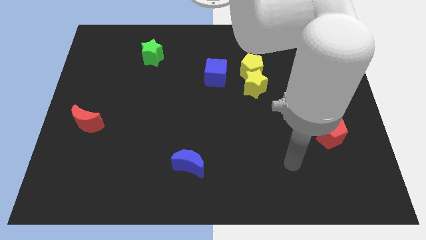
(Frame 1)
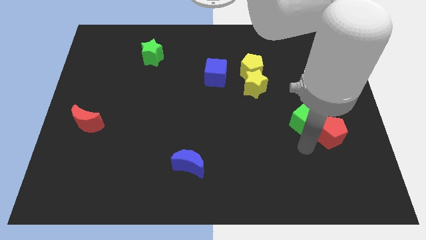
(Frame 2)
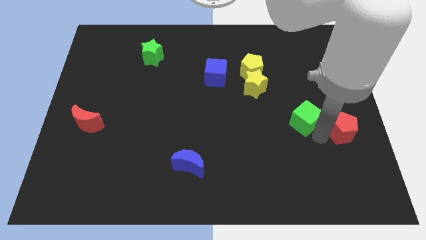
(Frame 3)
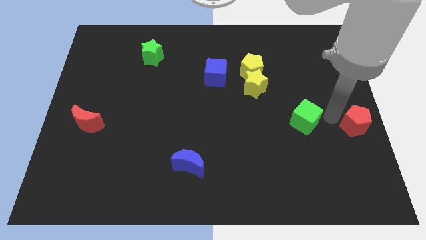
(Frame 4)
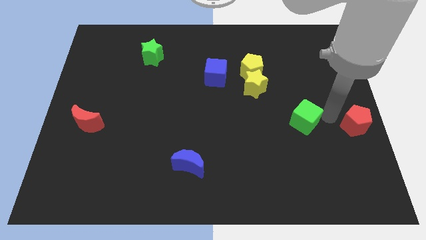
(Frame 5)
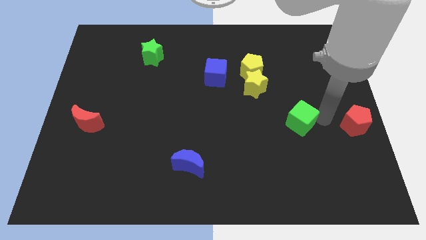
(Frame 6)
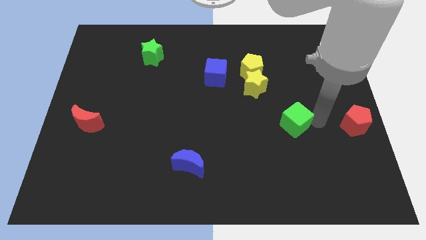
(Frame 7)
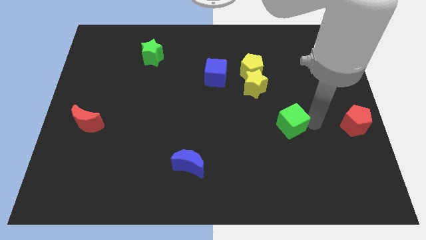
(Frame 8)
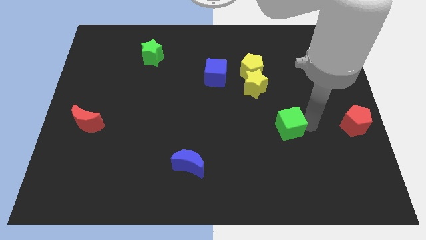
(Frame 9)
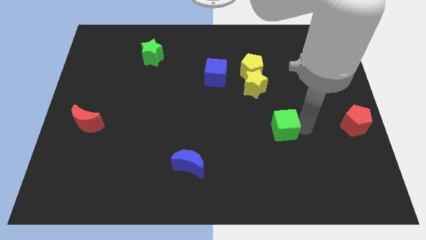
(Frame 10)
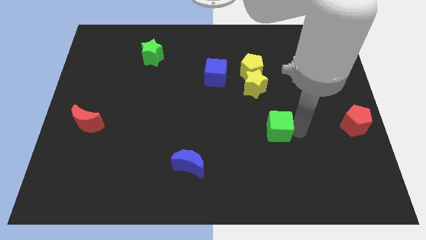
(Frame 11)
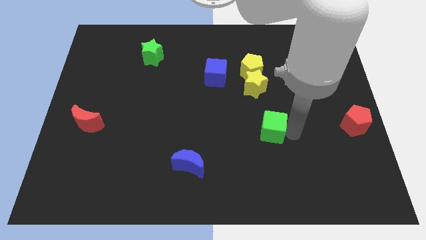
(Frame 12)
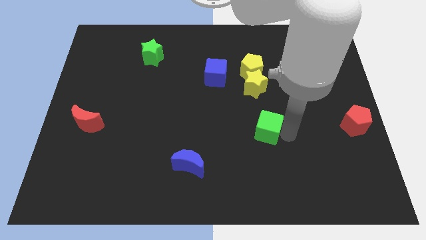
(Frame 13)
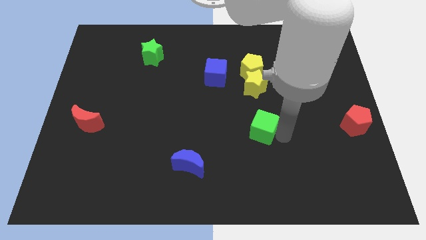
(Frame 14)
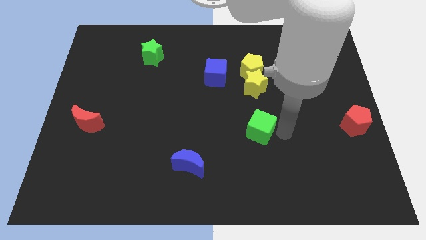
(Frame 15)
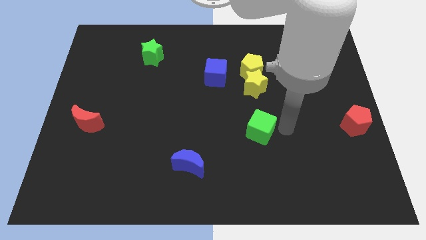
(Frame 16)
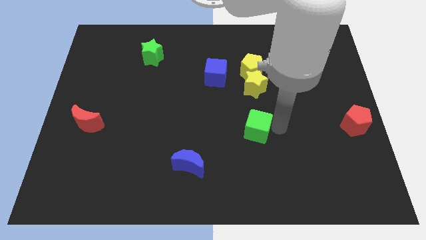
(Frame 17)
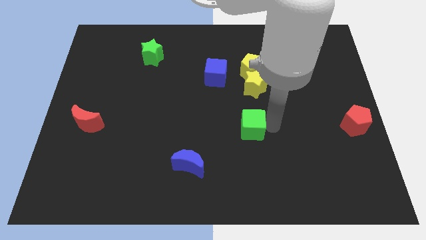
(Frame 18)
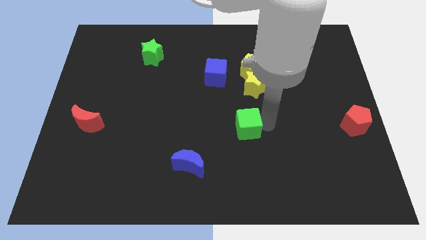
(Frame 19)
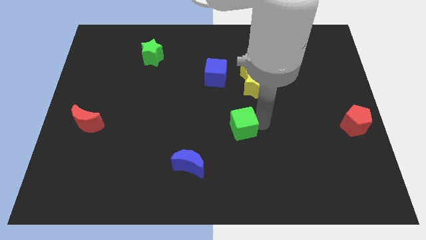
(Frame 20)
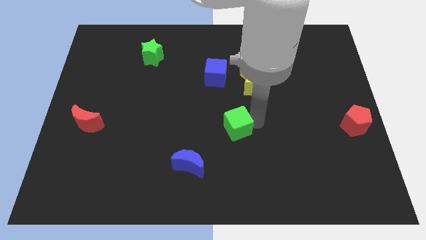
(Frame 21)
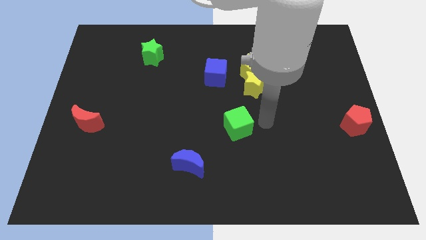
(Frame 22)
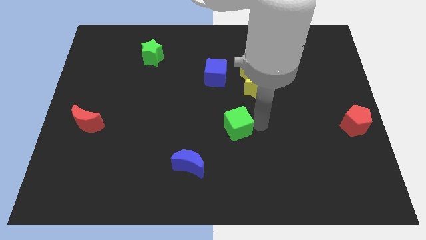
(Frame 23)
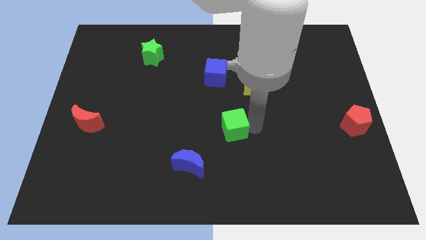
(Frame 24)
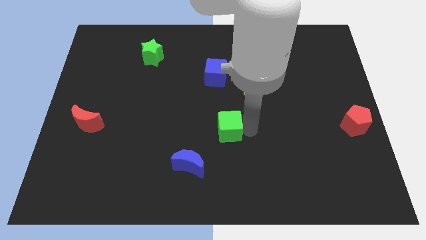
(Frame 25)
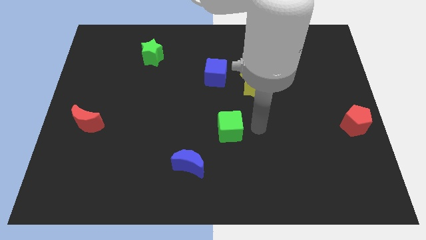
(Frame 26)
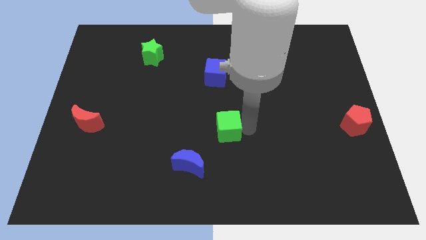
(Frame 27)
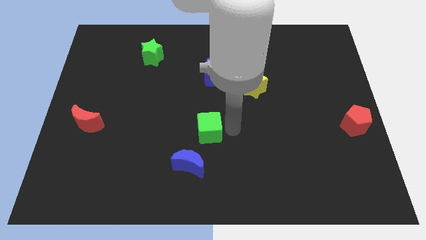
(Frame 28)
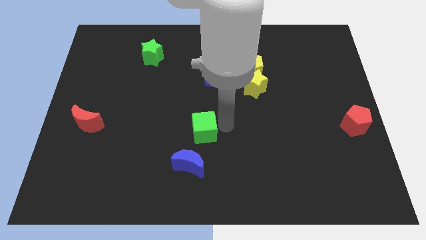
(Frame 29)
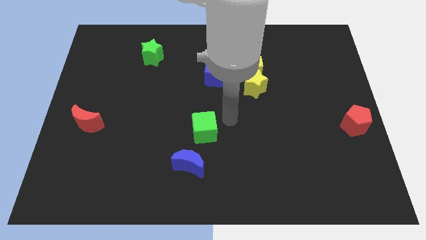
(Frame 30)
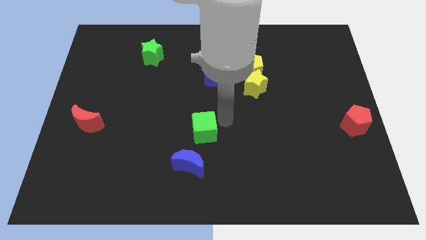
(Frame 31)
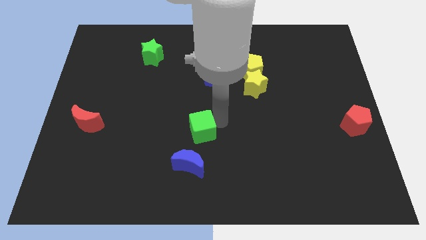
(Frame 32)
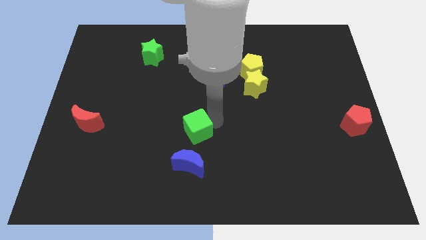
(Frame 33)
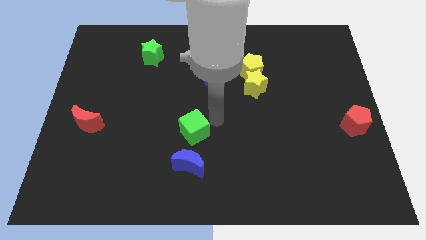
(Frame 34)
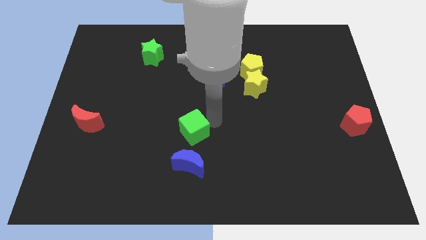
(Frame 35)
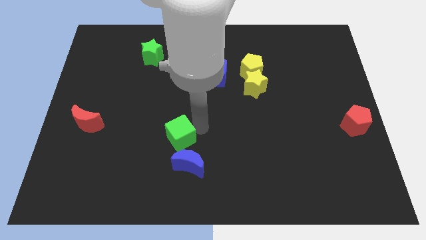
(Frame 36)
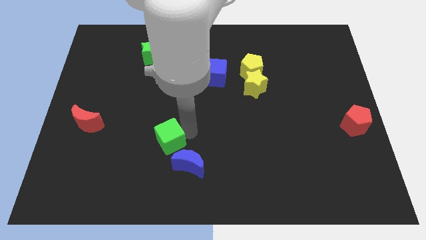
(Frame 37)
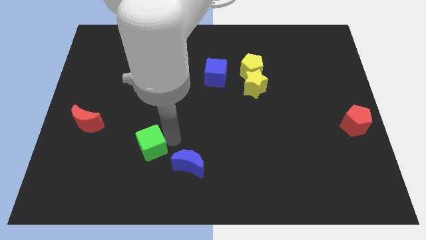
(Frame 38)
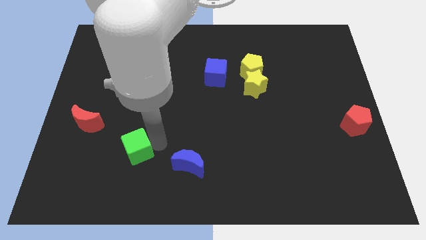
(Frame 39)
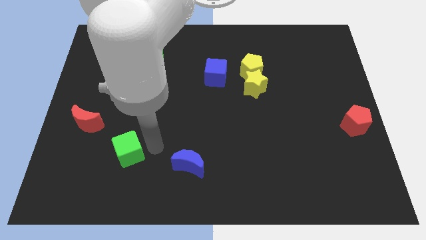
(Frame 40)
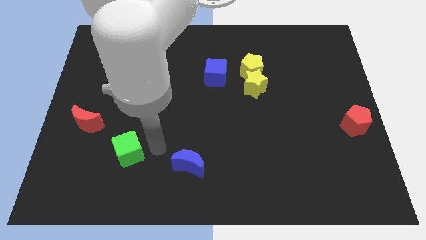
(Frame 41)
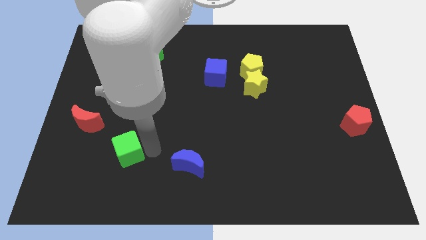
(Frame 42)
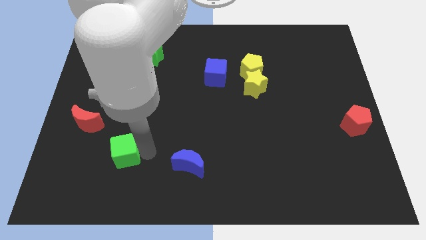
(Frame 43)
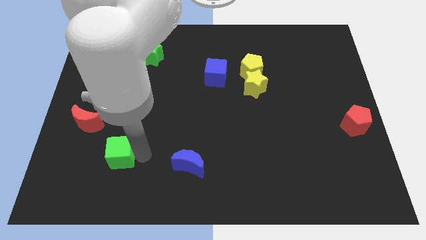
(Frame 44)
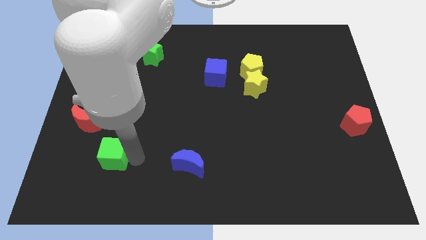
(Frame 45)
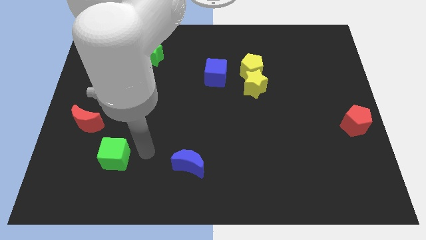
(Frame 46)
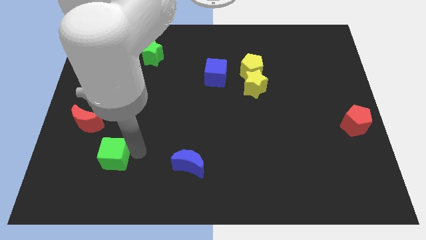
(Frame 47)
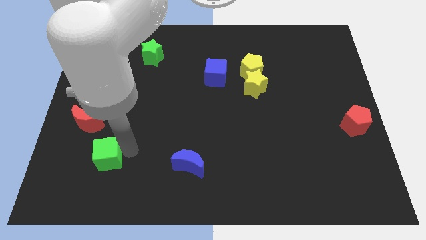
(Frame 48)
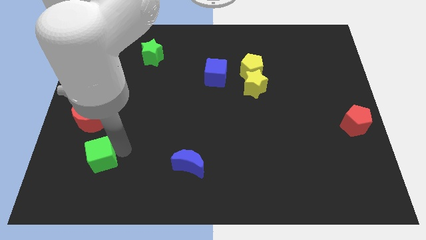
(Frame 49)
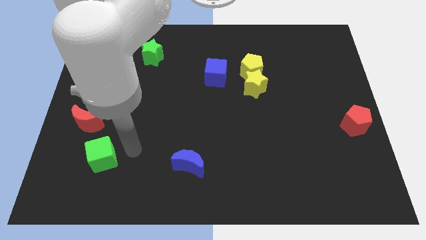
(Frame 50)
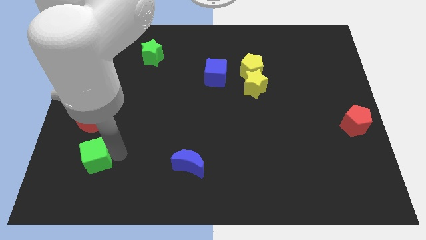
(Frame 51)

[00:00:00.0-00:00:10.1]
put the green cube to the bottom side of the red moon

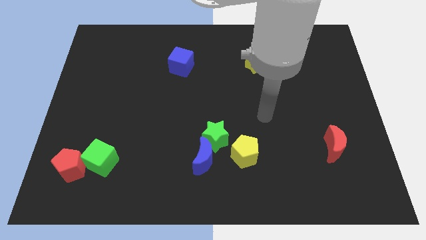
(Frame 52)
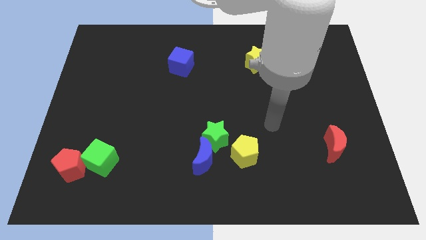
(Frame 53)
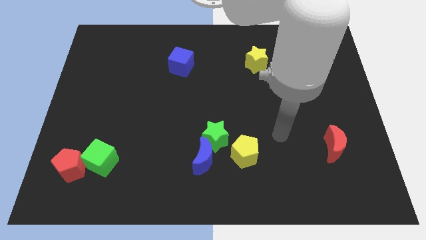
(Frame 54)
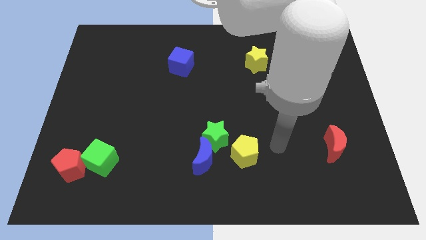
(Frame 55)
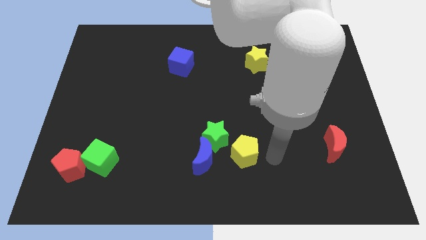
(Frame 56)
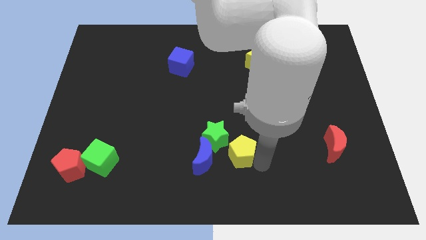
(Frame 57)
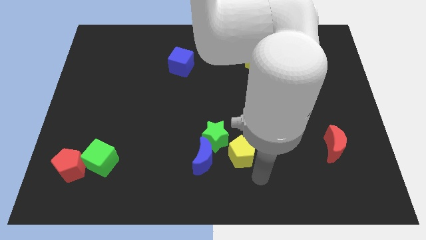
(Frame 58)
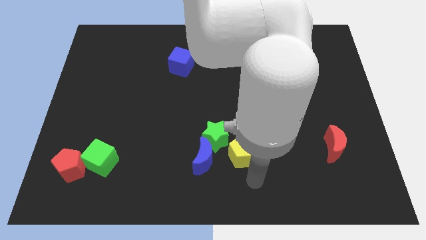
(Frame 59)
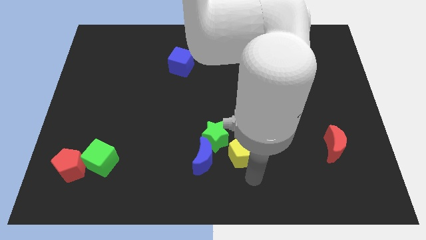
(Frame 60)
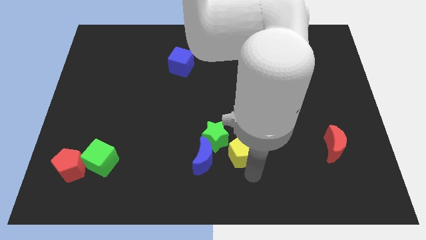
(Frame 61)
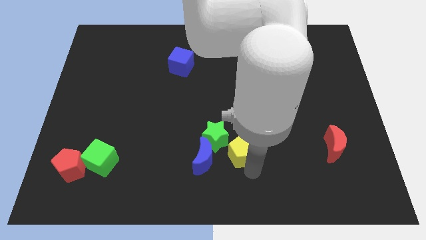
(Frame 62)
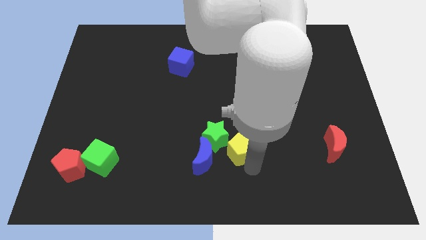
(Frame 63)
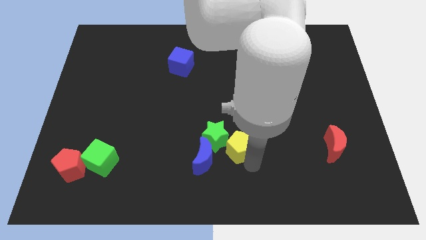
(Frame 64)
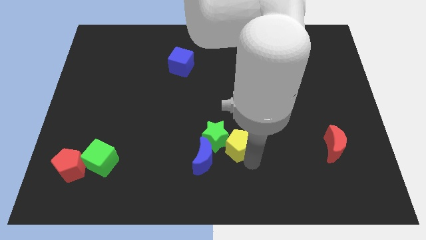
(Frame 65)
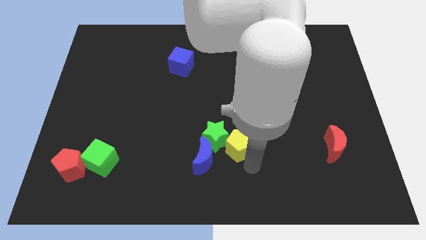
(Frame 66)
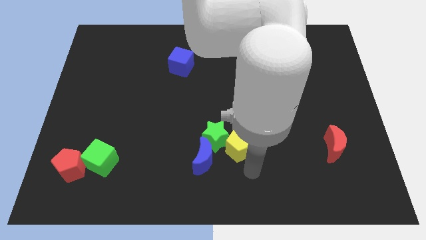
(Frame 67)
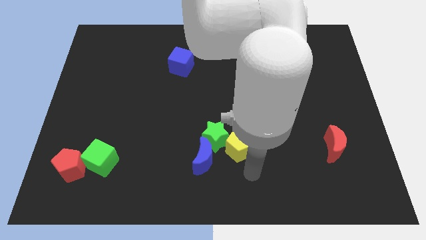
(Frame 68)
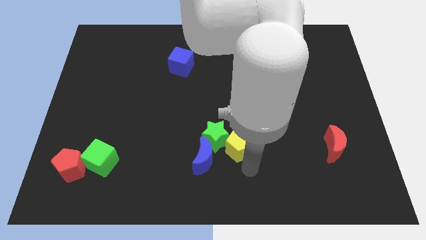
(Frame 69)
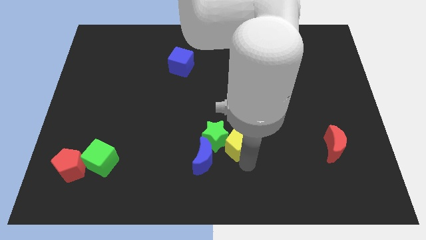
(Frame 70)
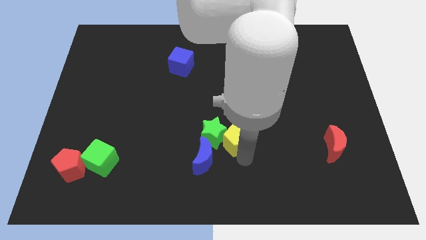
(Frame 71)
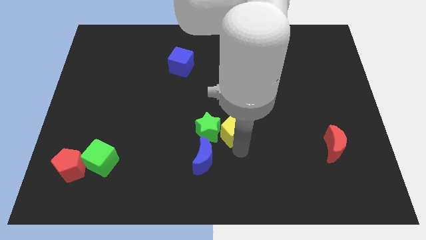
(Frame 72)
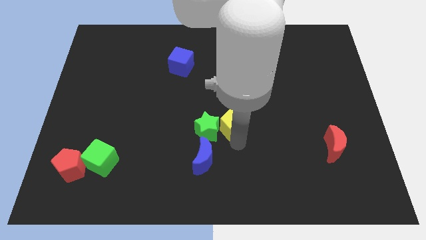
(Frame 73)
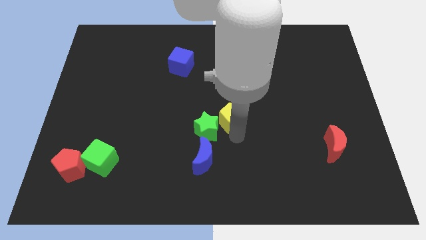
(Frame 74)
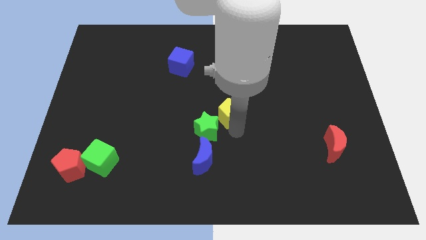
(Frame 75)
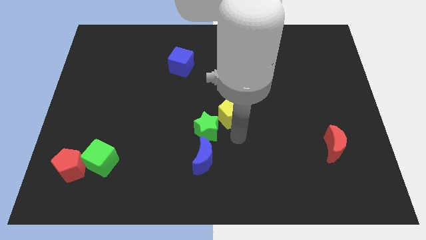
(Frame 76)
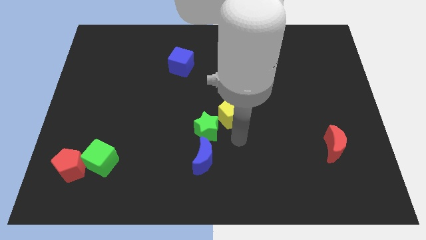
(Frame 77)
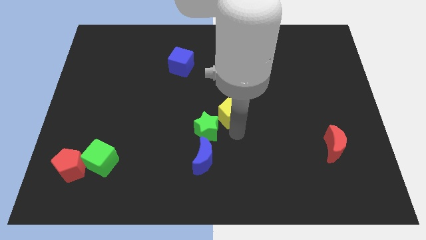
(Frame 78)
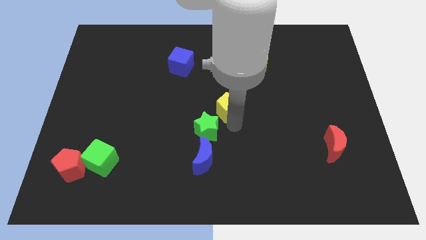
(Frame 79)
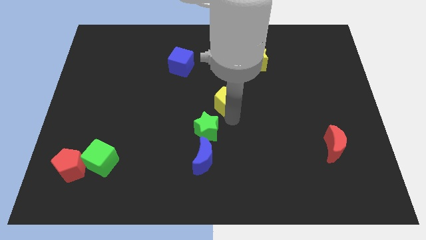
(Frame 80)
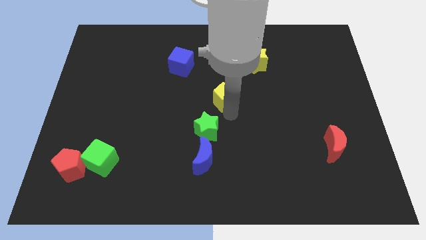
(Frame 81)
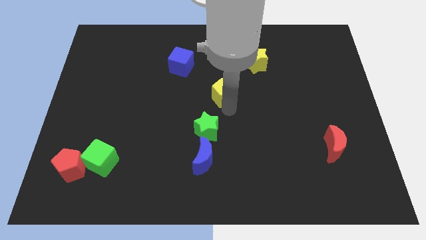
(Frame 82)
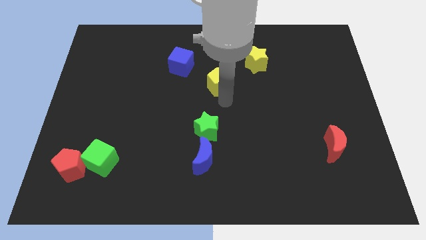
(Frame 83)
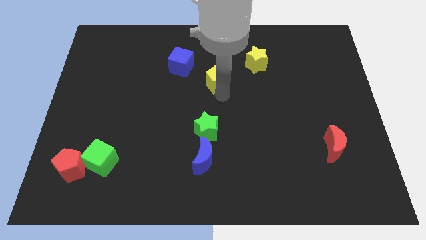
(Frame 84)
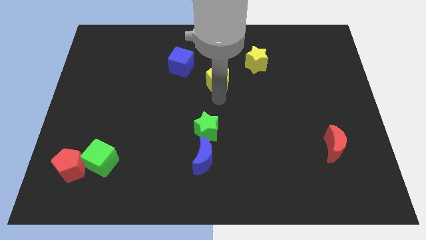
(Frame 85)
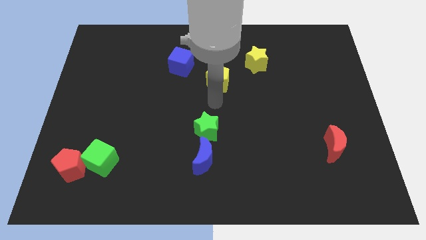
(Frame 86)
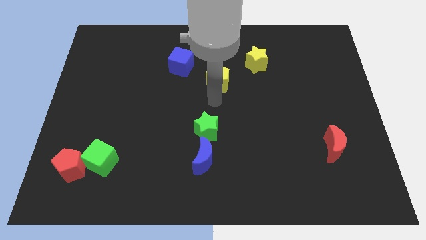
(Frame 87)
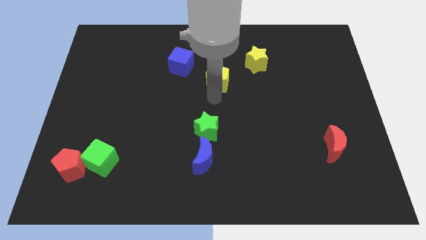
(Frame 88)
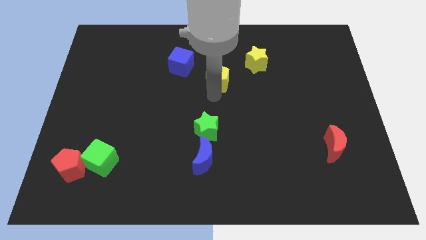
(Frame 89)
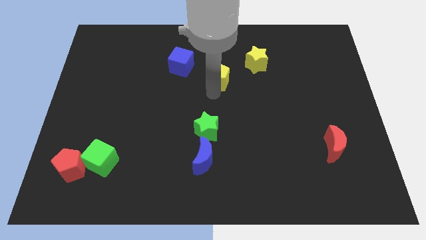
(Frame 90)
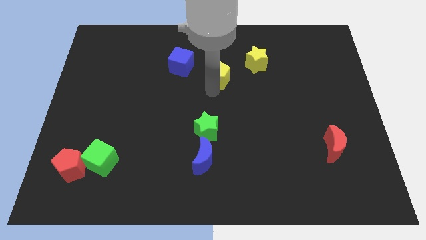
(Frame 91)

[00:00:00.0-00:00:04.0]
push the yellow pentagon to the right of the blue cube
